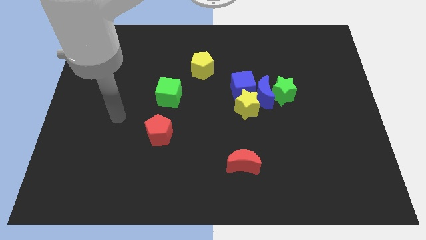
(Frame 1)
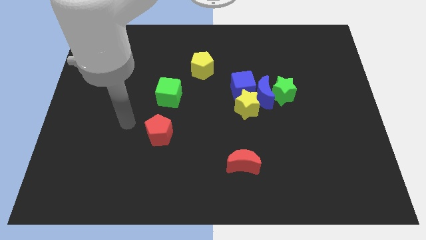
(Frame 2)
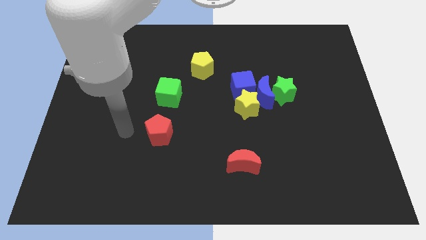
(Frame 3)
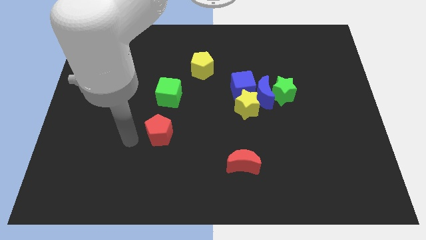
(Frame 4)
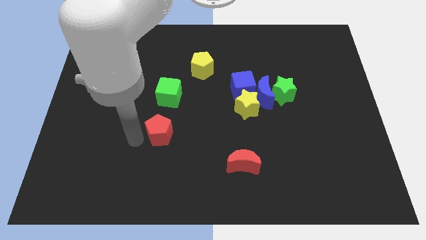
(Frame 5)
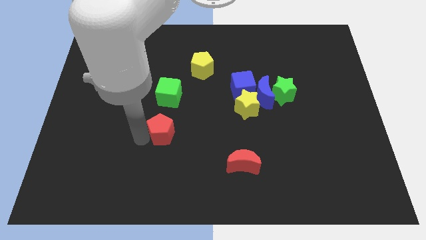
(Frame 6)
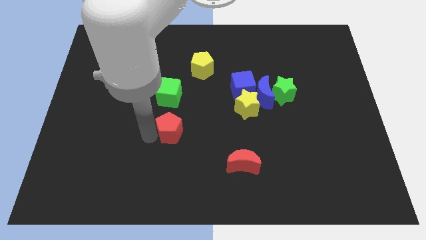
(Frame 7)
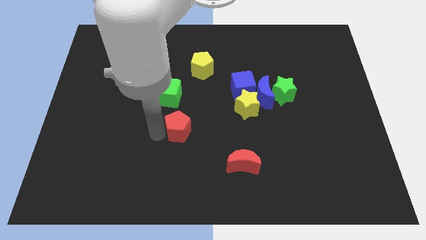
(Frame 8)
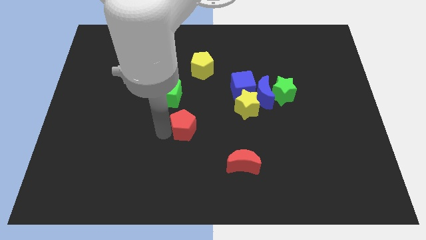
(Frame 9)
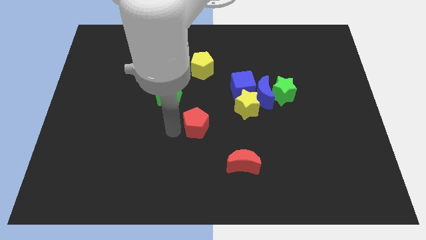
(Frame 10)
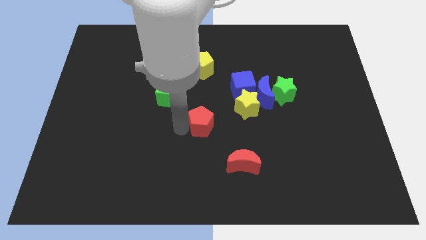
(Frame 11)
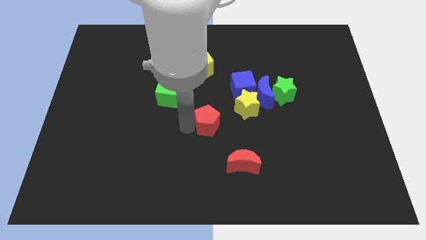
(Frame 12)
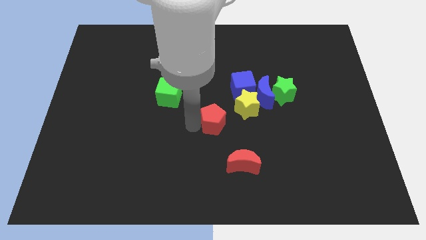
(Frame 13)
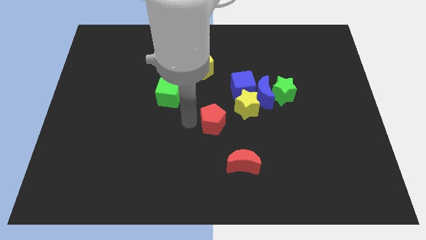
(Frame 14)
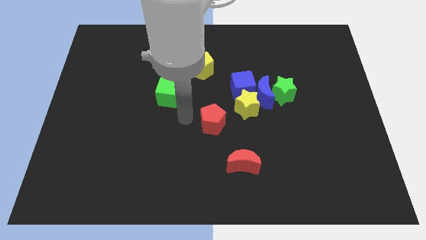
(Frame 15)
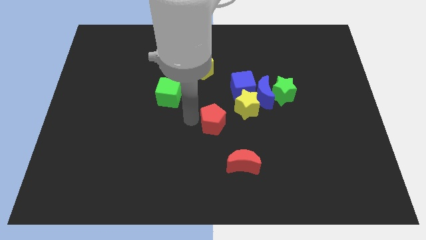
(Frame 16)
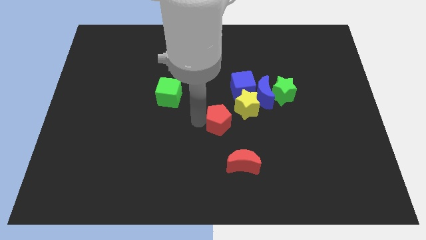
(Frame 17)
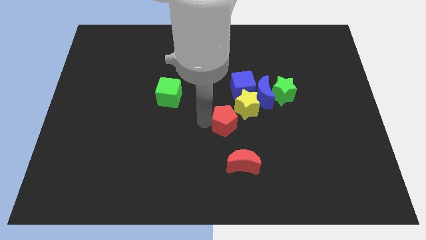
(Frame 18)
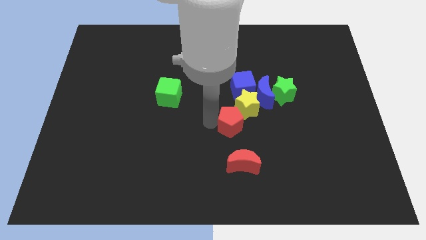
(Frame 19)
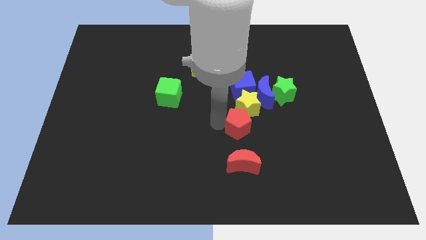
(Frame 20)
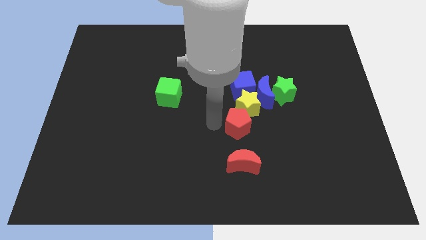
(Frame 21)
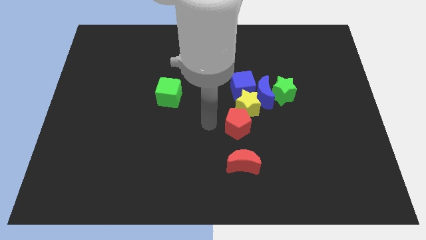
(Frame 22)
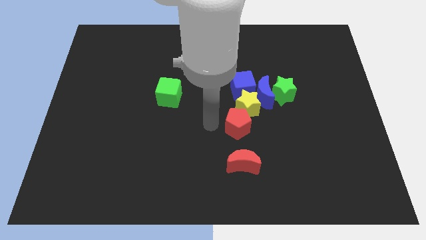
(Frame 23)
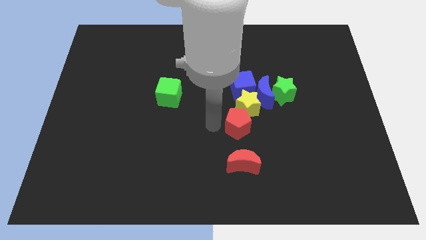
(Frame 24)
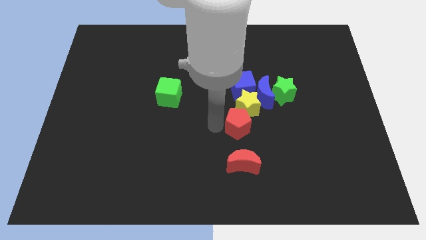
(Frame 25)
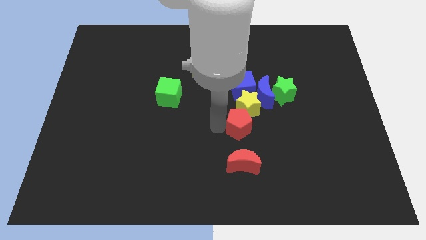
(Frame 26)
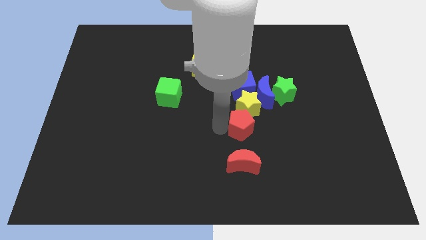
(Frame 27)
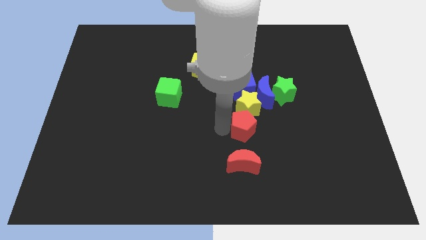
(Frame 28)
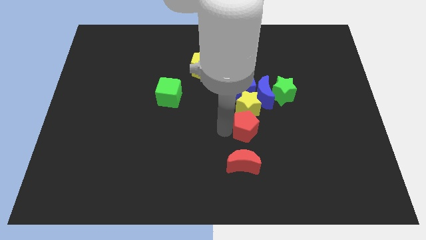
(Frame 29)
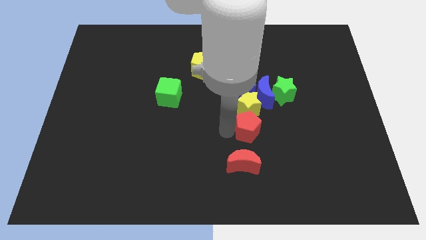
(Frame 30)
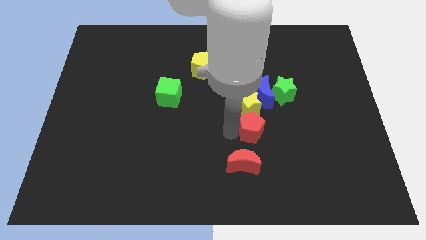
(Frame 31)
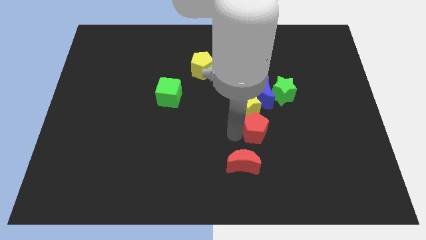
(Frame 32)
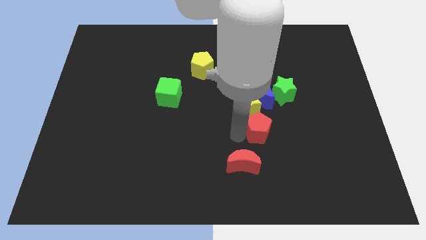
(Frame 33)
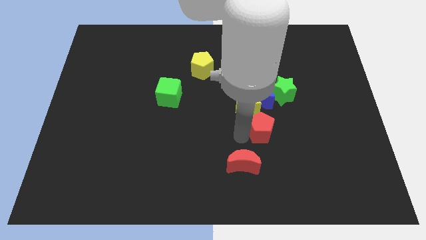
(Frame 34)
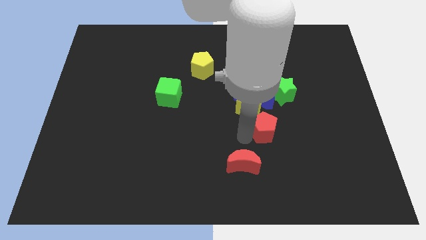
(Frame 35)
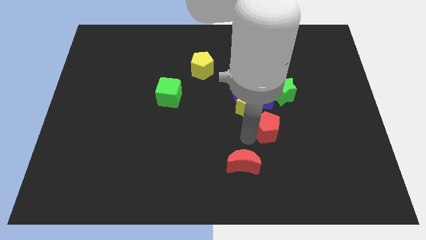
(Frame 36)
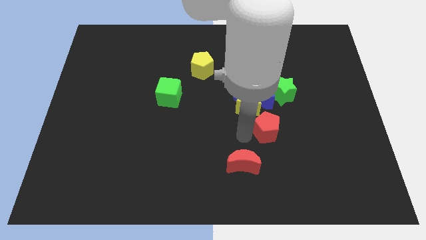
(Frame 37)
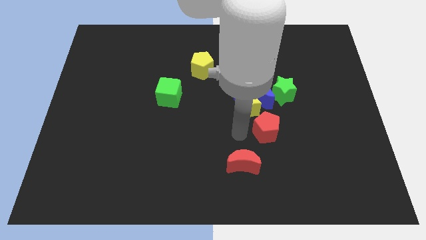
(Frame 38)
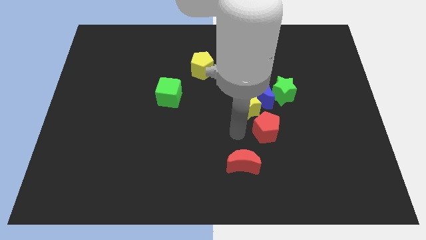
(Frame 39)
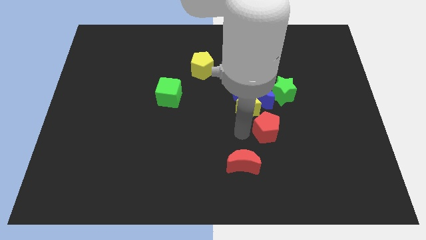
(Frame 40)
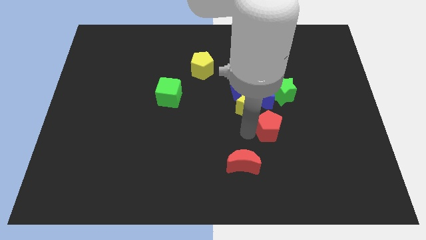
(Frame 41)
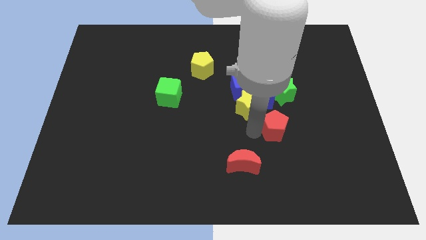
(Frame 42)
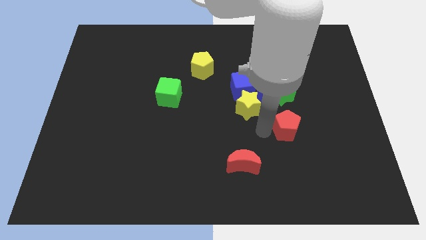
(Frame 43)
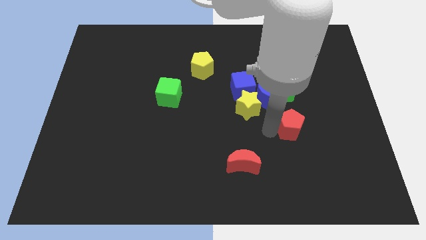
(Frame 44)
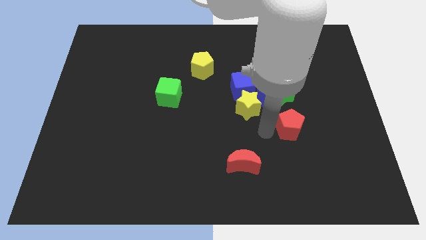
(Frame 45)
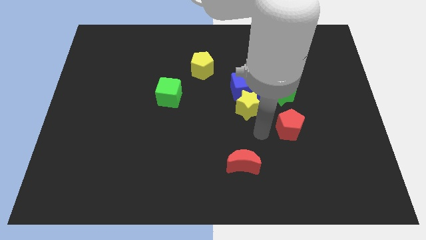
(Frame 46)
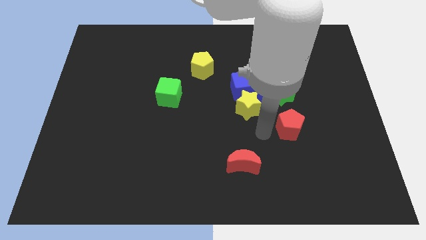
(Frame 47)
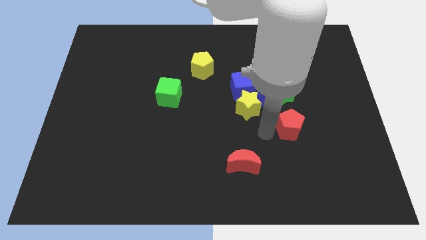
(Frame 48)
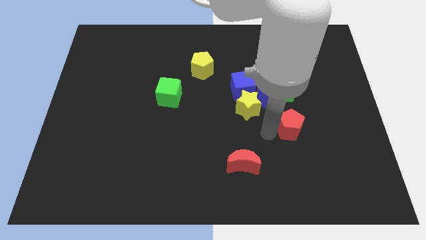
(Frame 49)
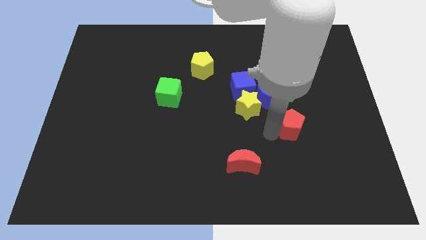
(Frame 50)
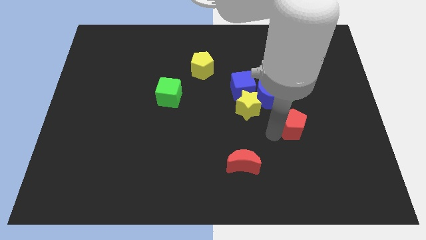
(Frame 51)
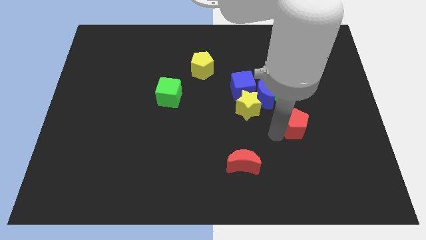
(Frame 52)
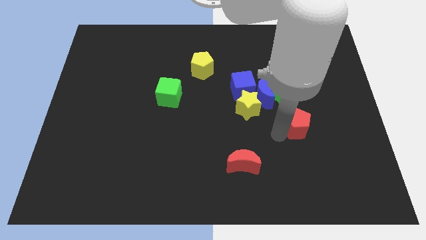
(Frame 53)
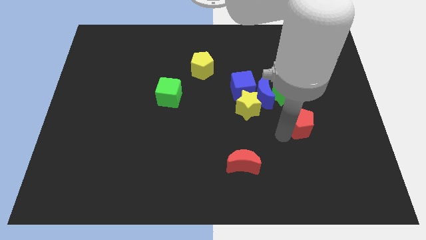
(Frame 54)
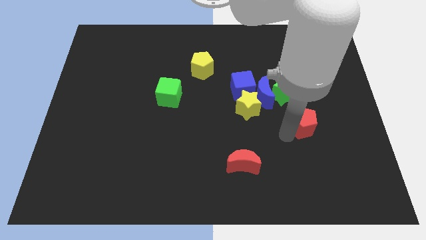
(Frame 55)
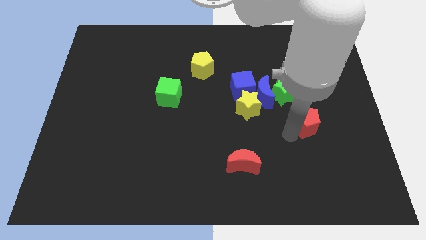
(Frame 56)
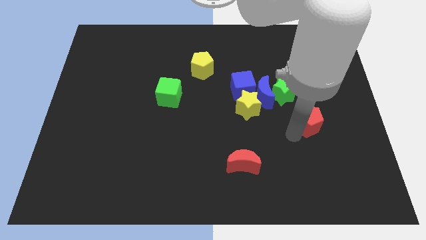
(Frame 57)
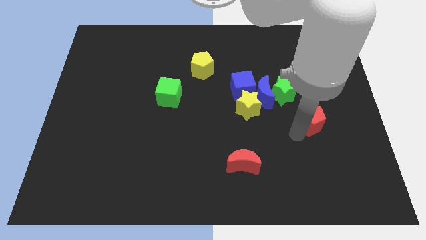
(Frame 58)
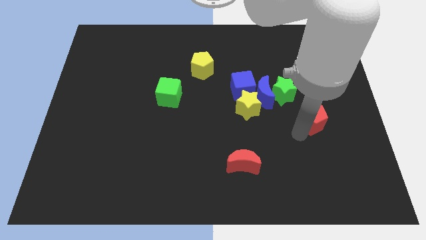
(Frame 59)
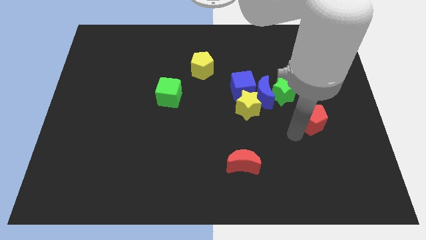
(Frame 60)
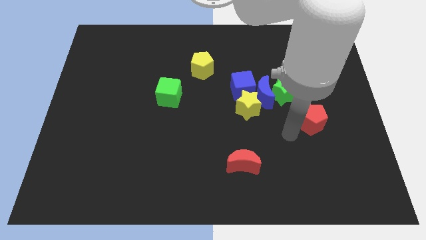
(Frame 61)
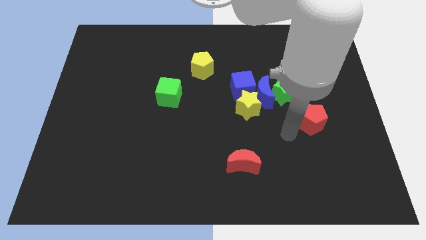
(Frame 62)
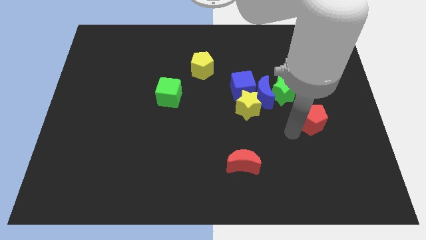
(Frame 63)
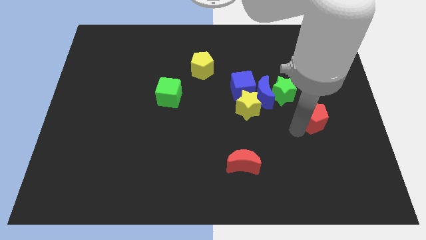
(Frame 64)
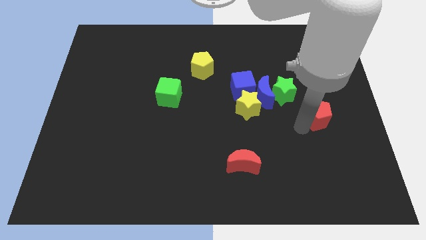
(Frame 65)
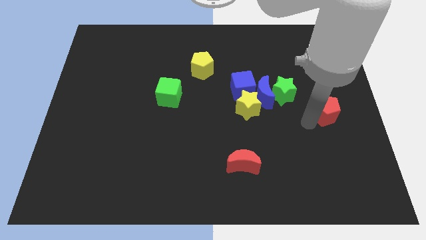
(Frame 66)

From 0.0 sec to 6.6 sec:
slide the red pentagon to the right side of the board

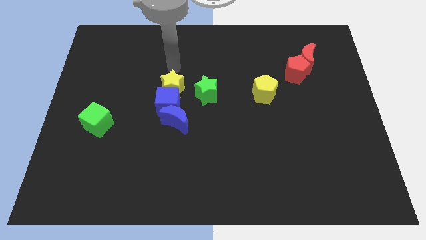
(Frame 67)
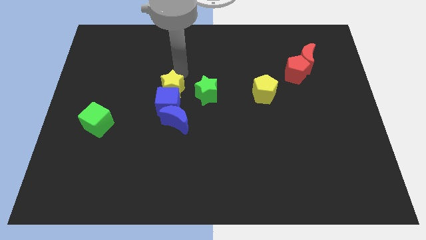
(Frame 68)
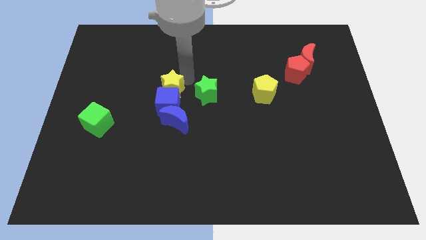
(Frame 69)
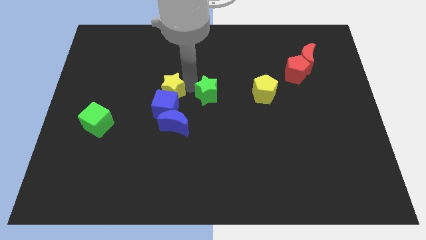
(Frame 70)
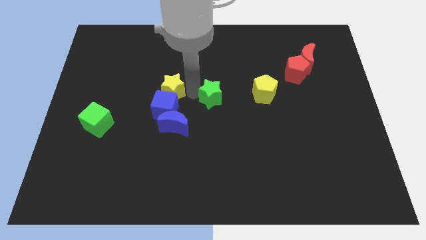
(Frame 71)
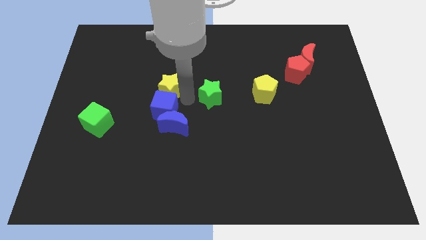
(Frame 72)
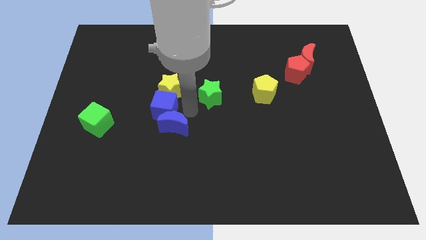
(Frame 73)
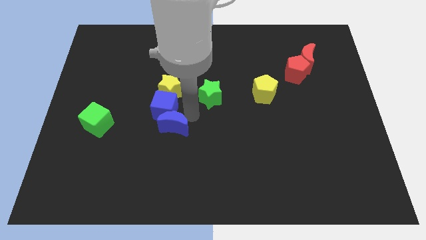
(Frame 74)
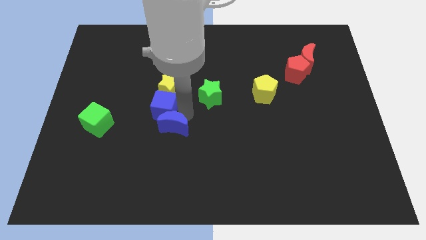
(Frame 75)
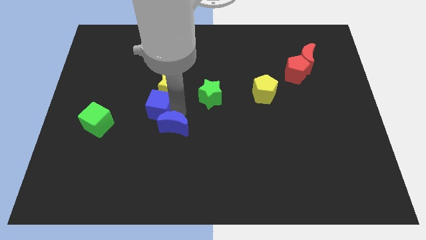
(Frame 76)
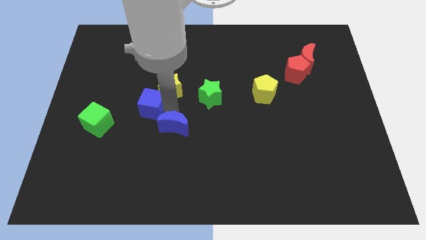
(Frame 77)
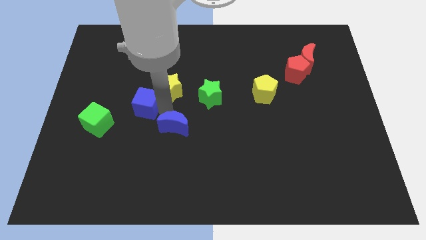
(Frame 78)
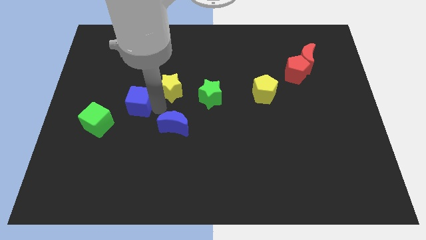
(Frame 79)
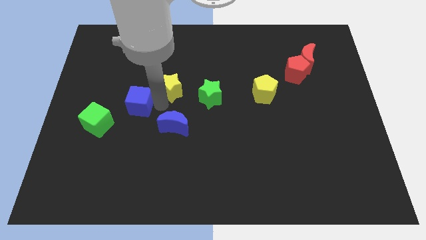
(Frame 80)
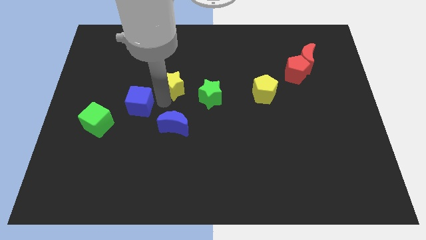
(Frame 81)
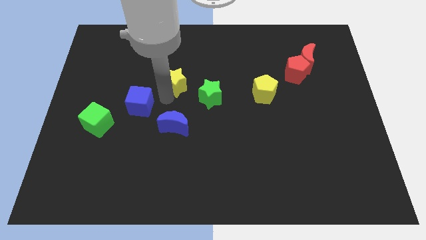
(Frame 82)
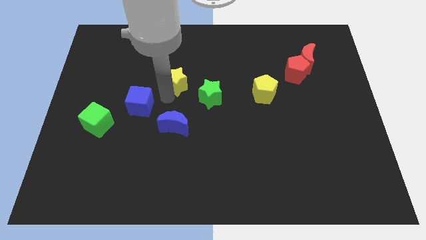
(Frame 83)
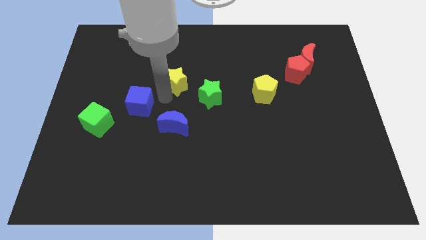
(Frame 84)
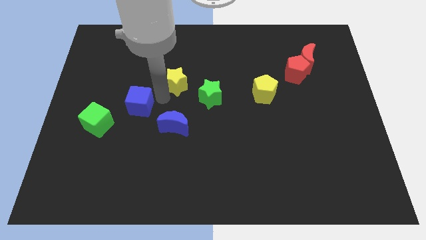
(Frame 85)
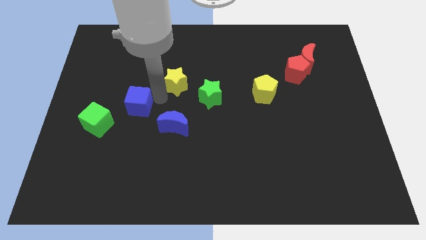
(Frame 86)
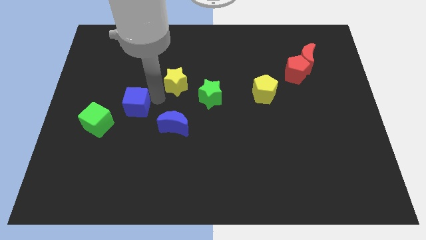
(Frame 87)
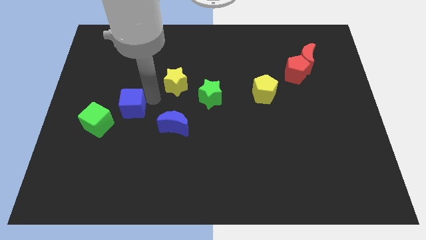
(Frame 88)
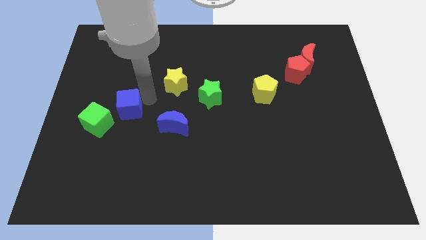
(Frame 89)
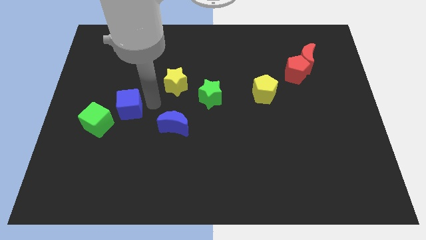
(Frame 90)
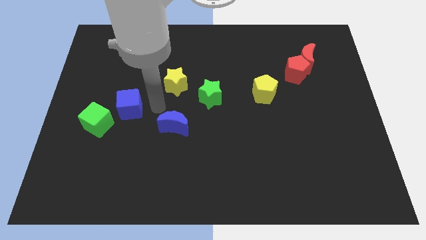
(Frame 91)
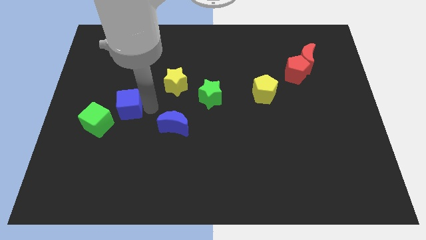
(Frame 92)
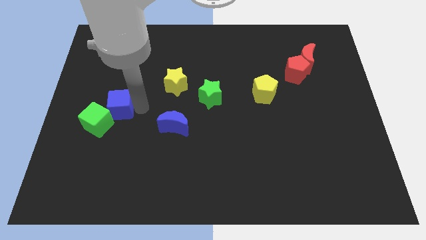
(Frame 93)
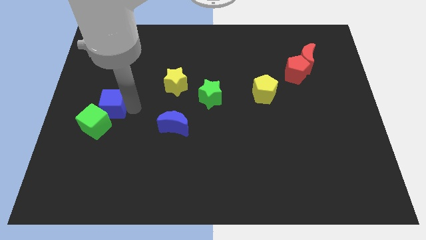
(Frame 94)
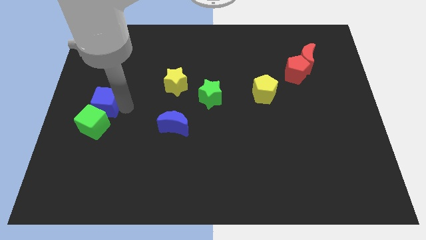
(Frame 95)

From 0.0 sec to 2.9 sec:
move the blue cube to the center left
